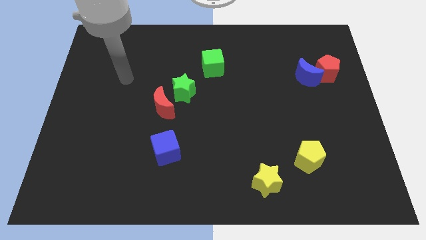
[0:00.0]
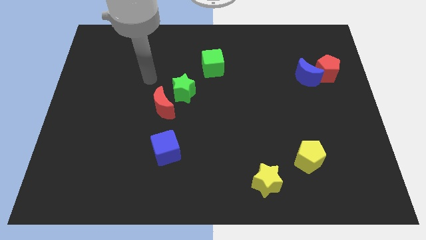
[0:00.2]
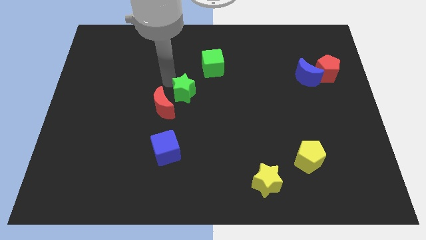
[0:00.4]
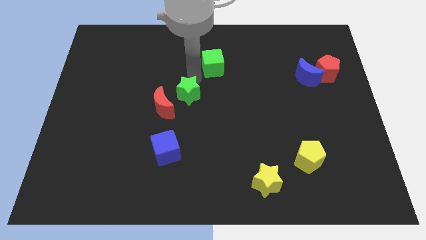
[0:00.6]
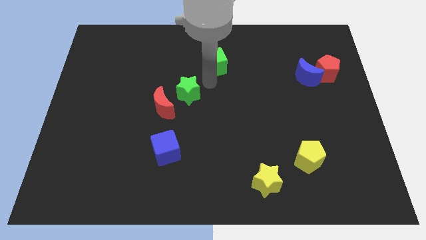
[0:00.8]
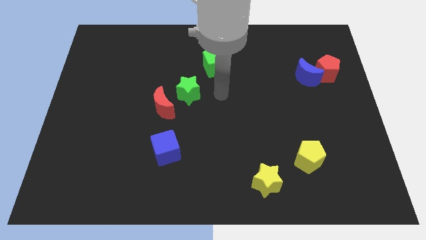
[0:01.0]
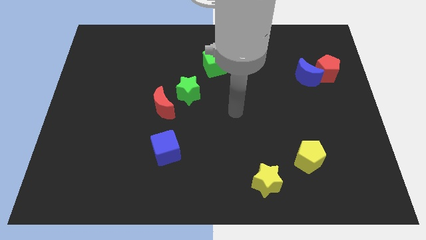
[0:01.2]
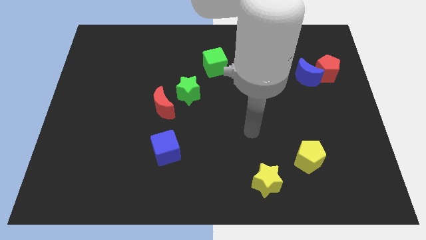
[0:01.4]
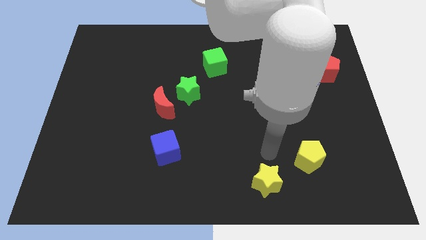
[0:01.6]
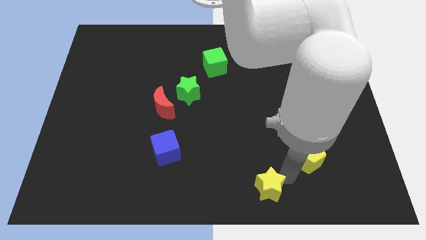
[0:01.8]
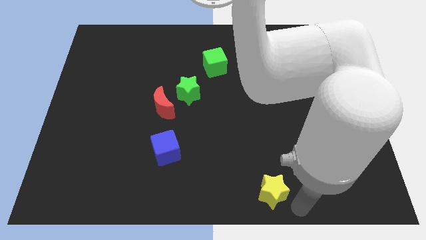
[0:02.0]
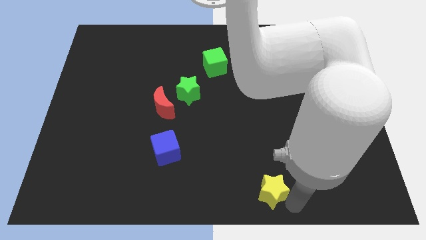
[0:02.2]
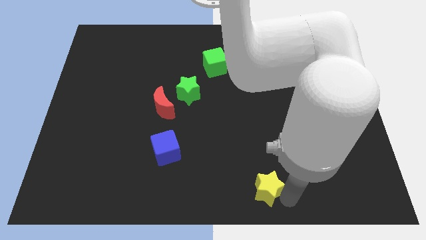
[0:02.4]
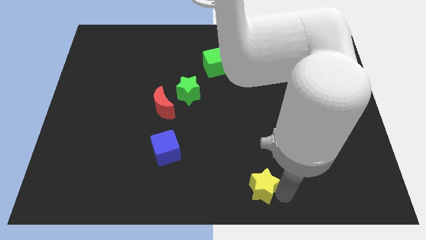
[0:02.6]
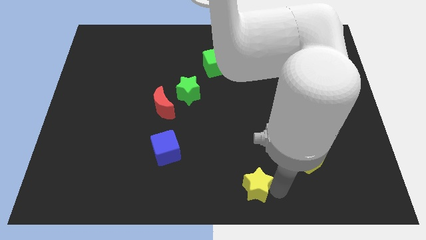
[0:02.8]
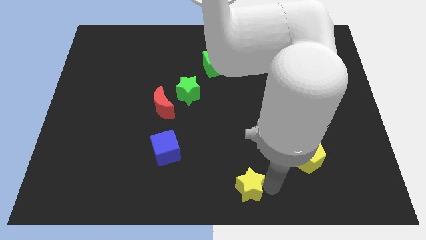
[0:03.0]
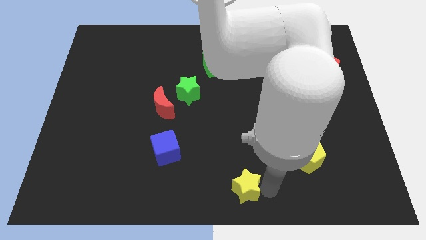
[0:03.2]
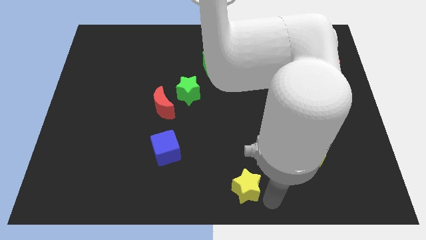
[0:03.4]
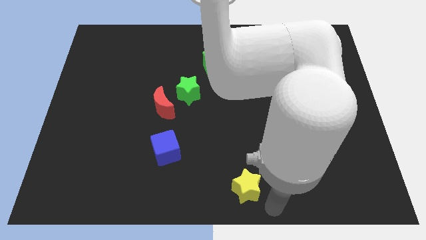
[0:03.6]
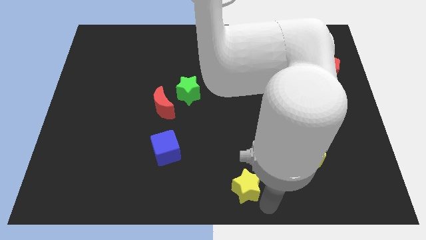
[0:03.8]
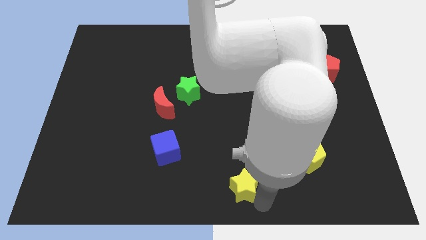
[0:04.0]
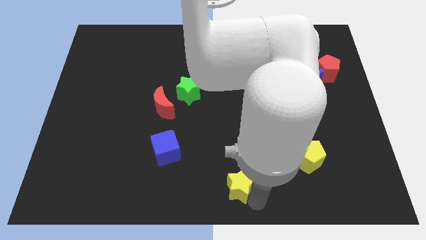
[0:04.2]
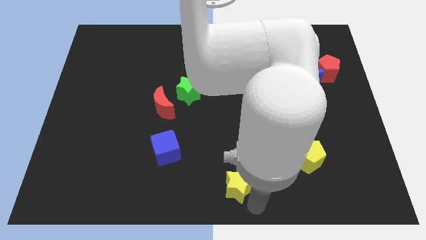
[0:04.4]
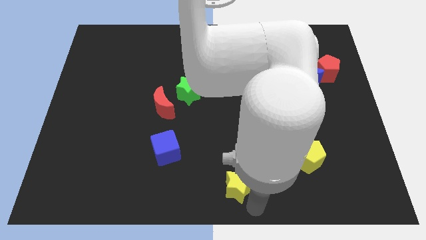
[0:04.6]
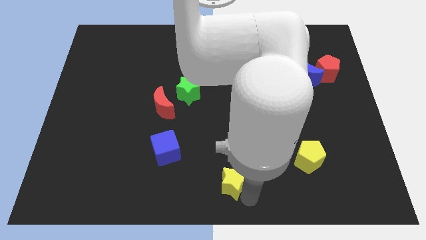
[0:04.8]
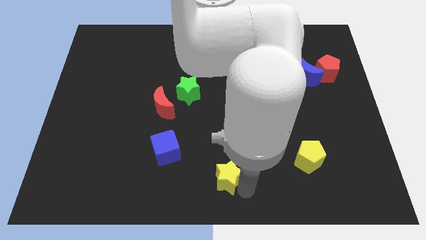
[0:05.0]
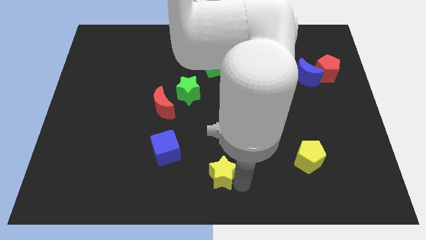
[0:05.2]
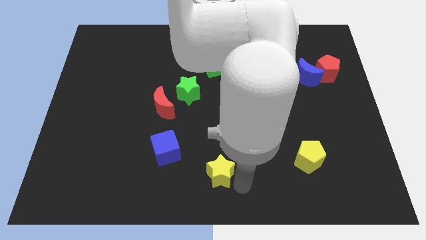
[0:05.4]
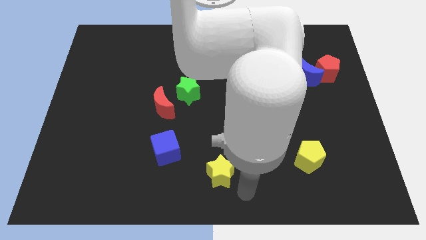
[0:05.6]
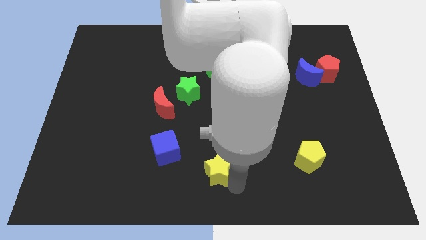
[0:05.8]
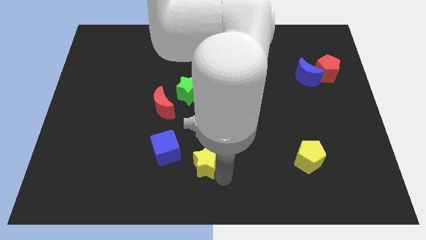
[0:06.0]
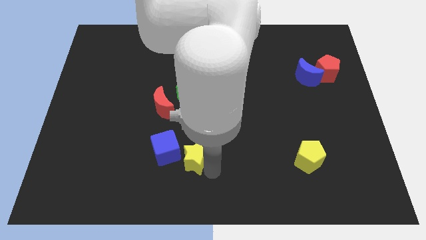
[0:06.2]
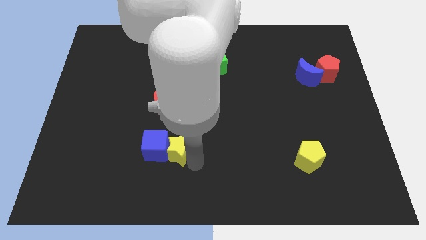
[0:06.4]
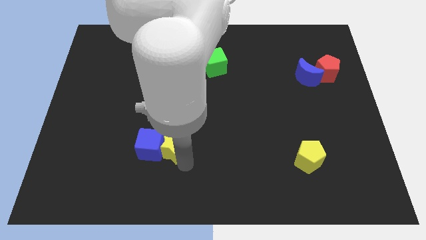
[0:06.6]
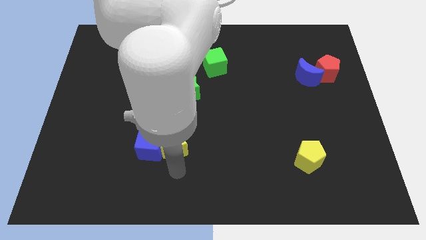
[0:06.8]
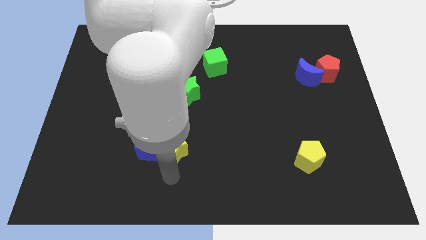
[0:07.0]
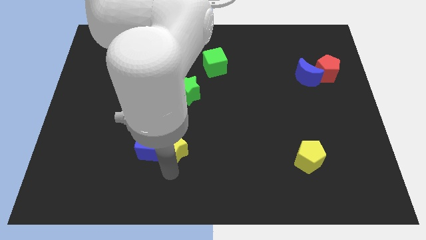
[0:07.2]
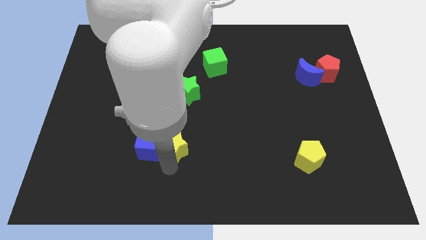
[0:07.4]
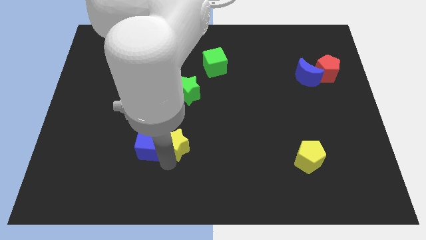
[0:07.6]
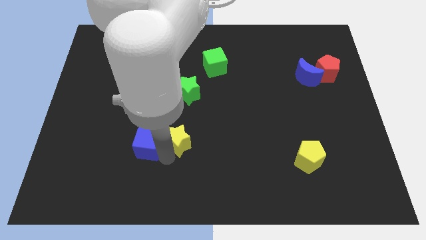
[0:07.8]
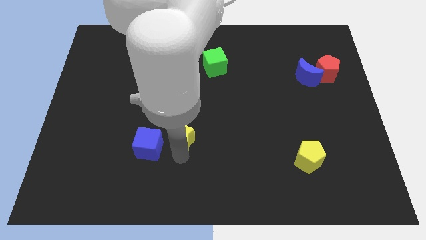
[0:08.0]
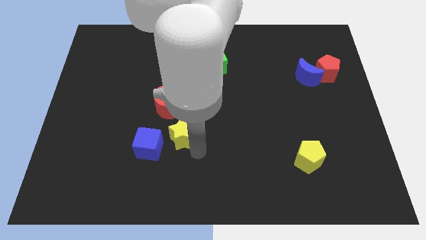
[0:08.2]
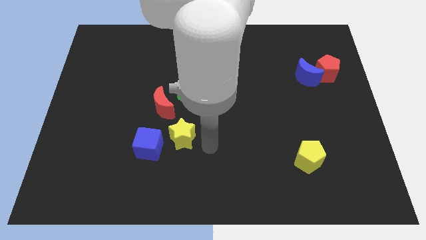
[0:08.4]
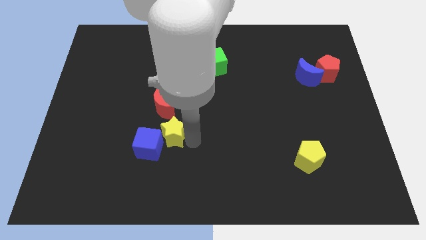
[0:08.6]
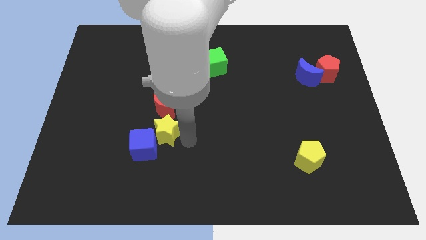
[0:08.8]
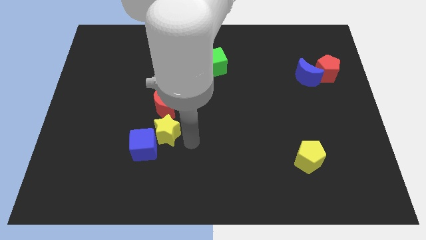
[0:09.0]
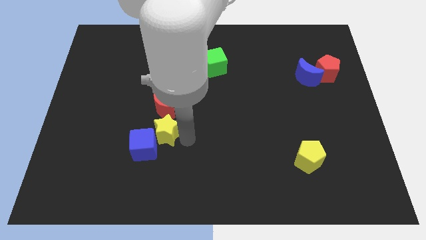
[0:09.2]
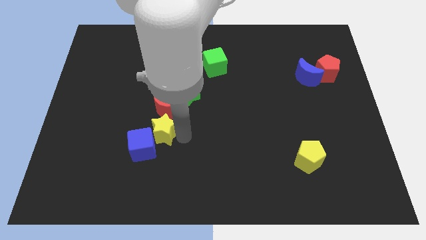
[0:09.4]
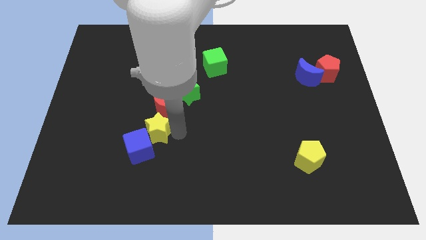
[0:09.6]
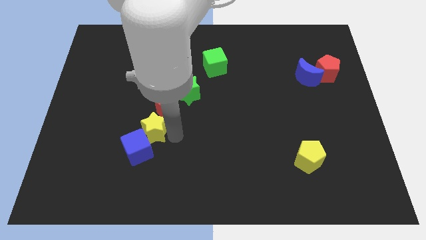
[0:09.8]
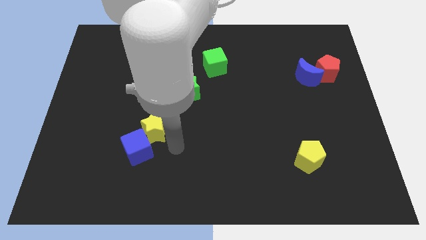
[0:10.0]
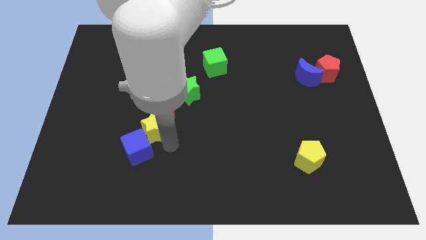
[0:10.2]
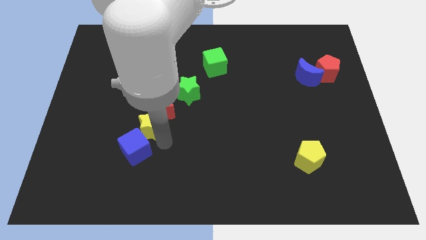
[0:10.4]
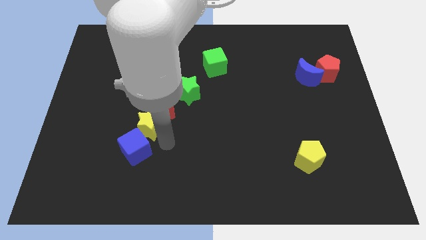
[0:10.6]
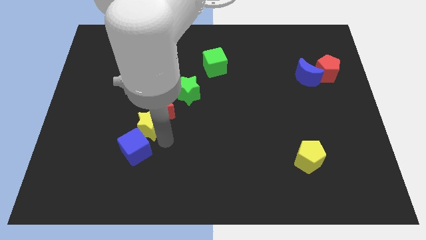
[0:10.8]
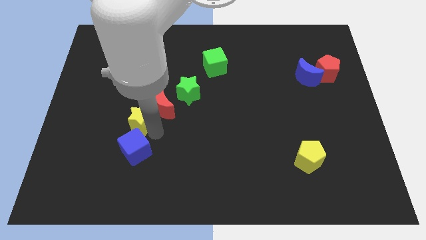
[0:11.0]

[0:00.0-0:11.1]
put the yellow star to the left of the red moon

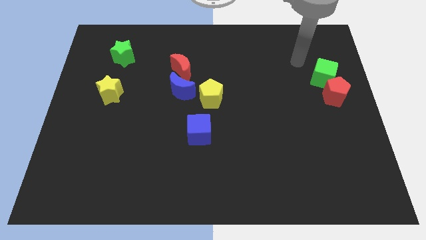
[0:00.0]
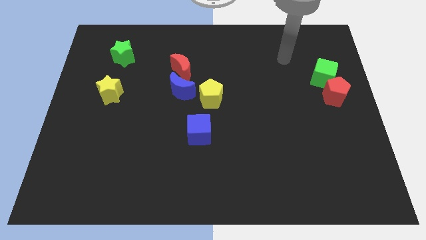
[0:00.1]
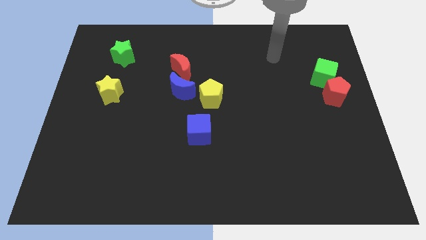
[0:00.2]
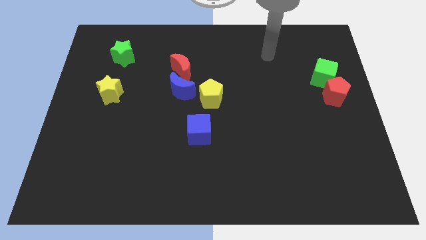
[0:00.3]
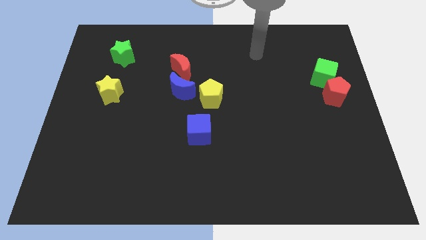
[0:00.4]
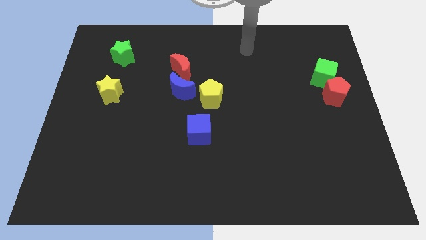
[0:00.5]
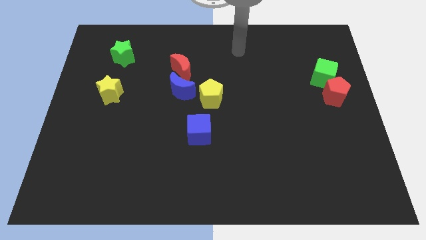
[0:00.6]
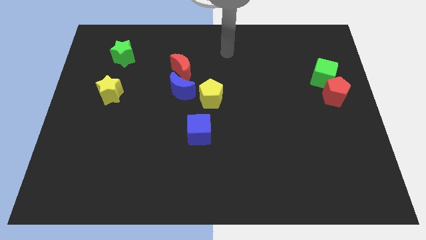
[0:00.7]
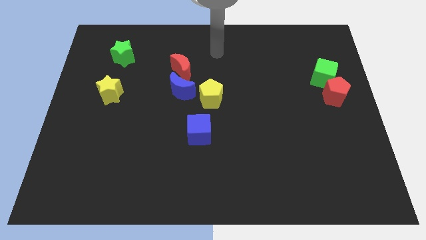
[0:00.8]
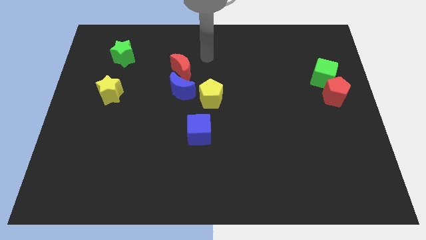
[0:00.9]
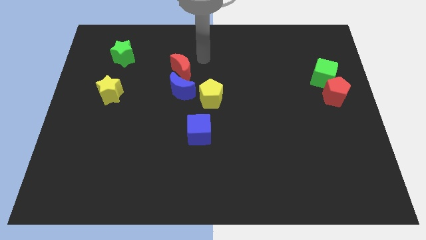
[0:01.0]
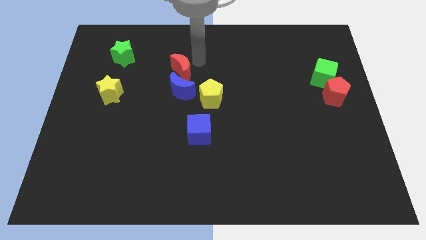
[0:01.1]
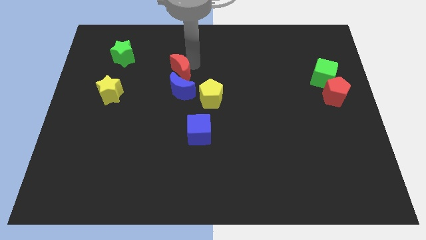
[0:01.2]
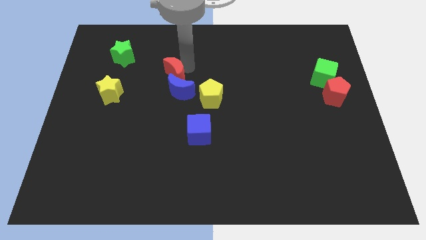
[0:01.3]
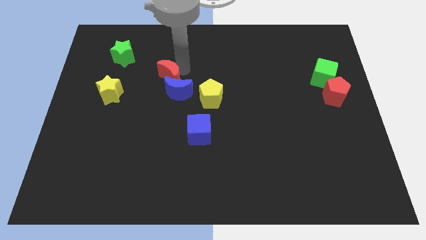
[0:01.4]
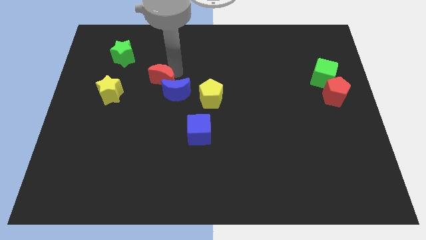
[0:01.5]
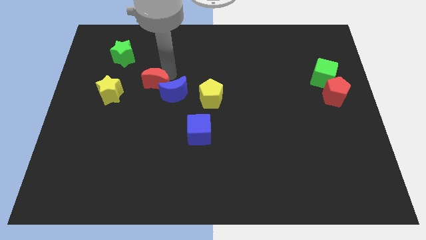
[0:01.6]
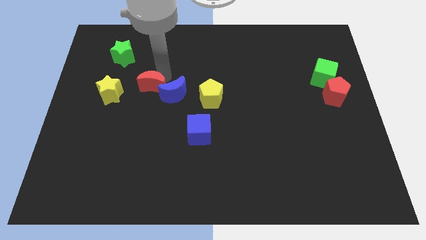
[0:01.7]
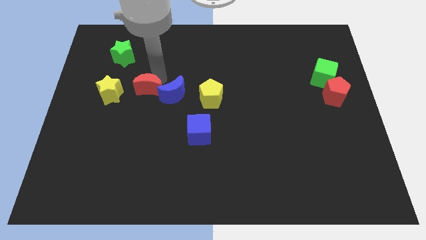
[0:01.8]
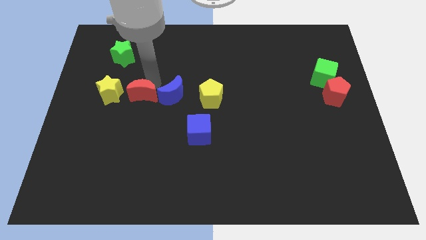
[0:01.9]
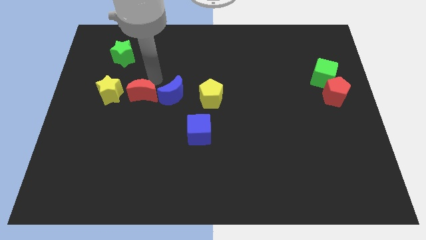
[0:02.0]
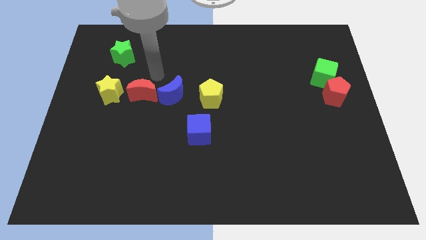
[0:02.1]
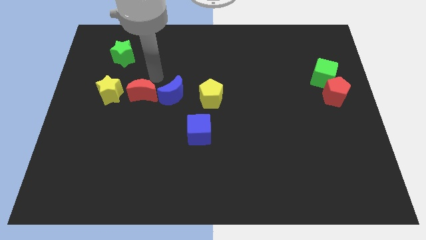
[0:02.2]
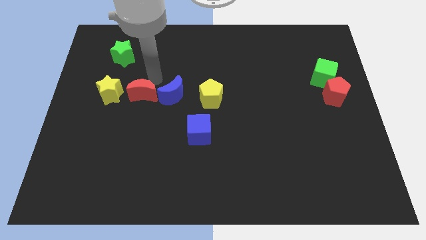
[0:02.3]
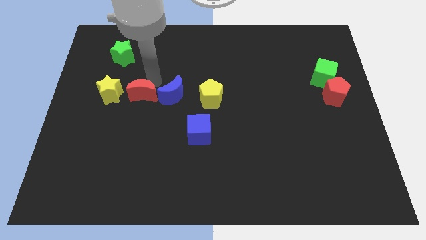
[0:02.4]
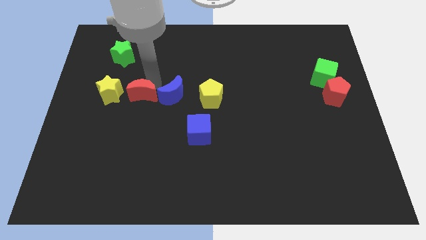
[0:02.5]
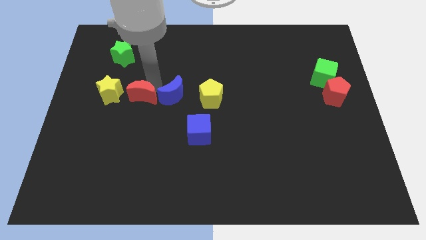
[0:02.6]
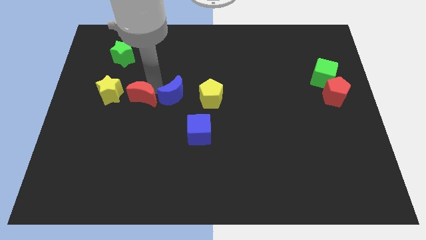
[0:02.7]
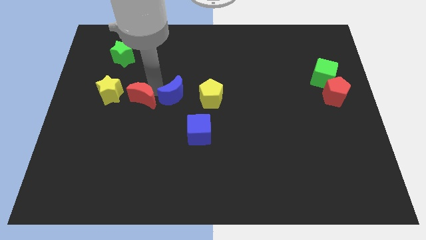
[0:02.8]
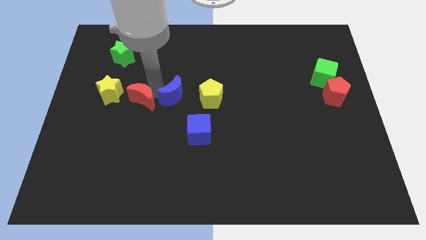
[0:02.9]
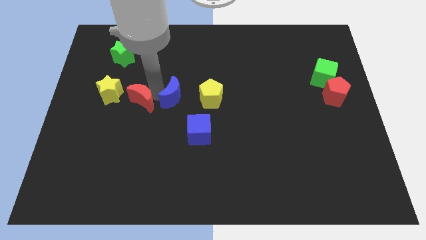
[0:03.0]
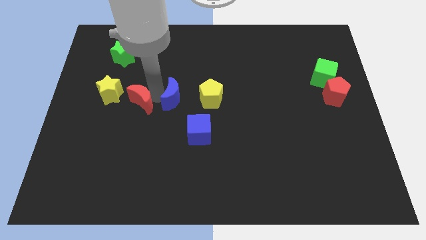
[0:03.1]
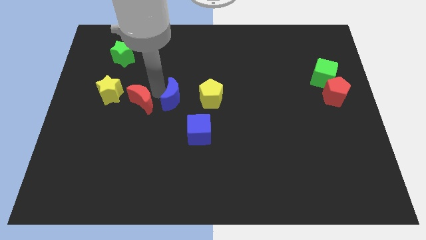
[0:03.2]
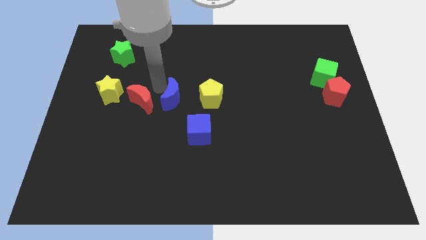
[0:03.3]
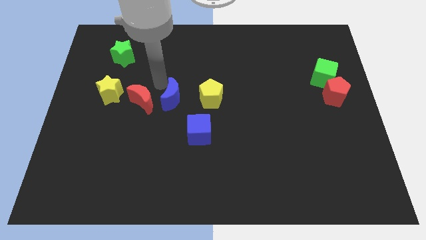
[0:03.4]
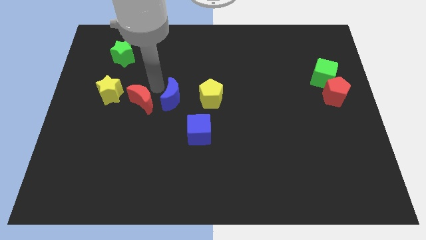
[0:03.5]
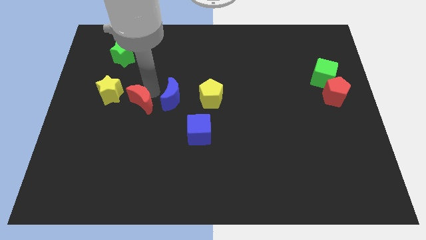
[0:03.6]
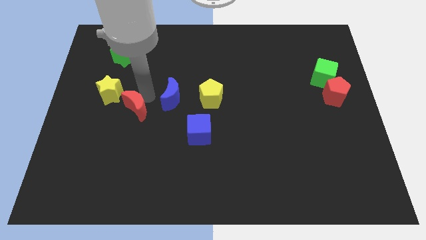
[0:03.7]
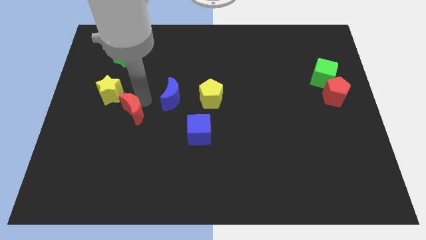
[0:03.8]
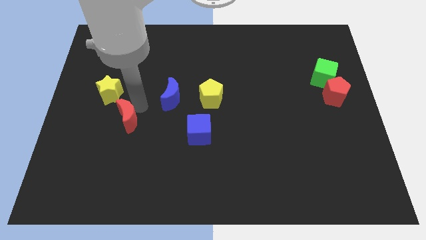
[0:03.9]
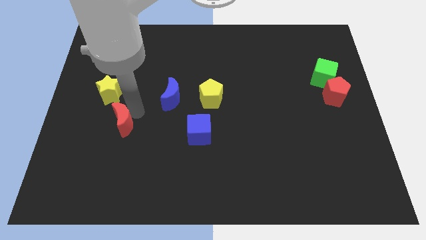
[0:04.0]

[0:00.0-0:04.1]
move the red moon to the bottom side of the yellow star
